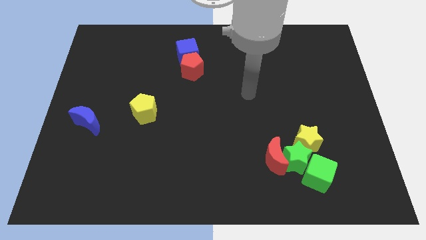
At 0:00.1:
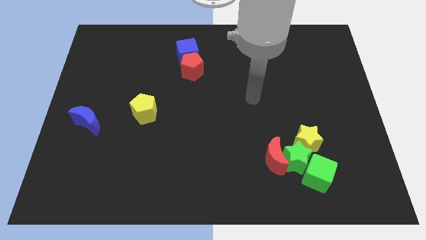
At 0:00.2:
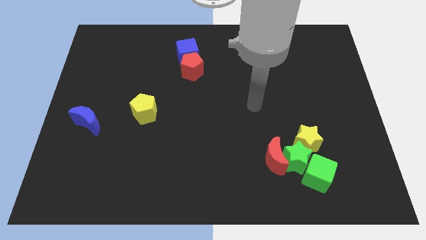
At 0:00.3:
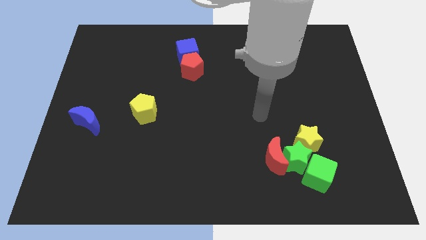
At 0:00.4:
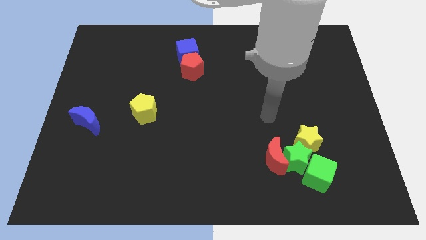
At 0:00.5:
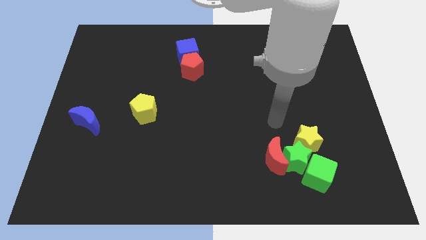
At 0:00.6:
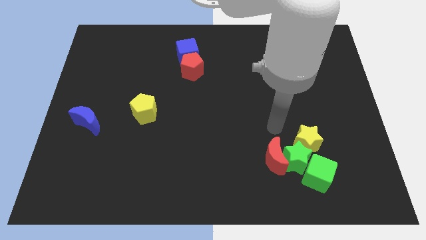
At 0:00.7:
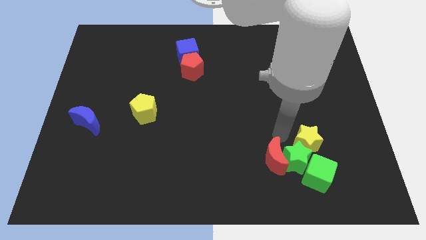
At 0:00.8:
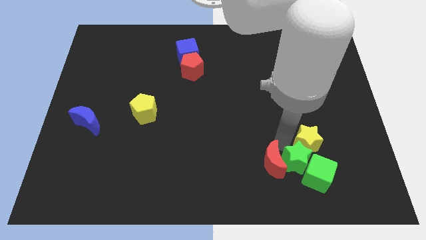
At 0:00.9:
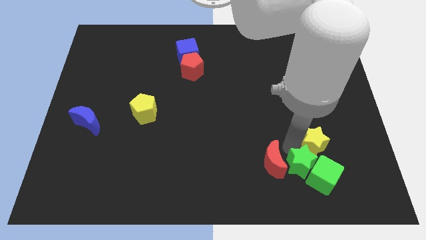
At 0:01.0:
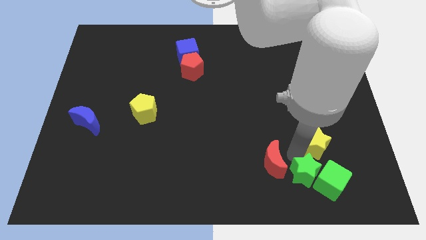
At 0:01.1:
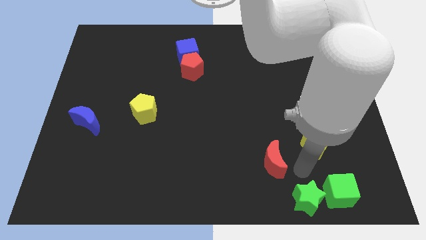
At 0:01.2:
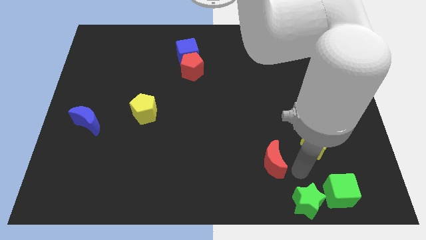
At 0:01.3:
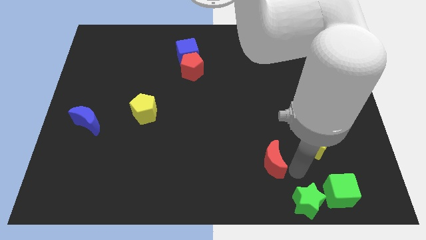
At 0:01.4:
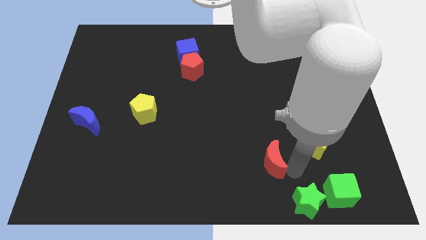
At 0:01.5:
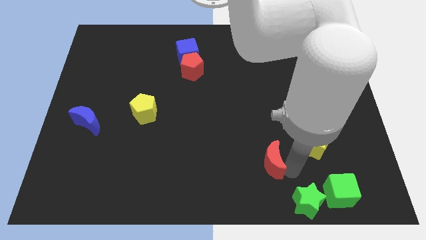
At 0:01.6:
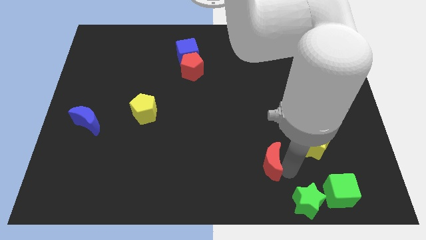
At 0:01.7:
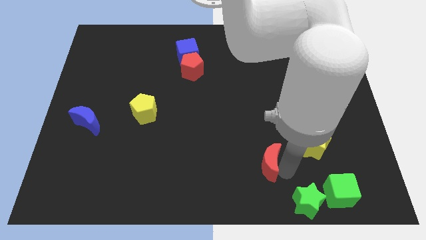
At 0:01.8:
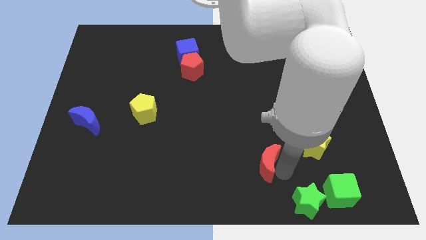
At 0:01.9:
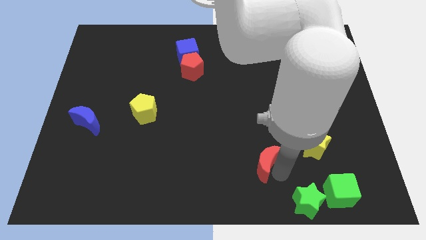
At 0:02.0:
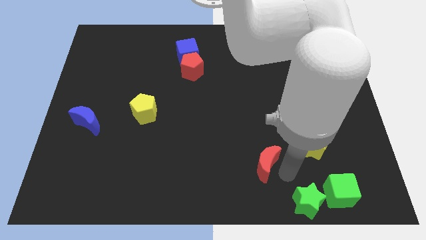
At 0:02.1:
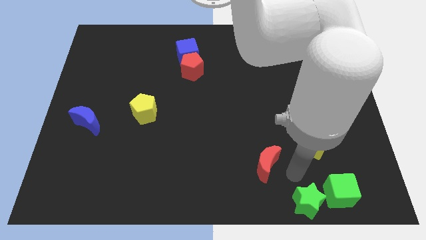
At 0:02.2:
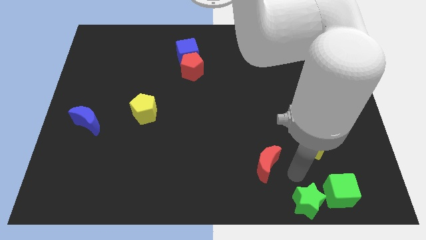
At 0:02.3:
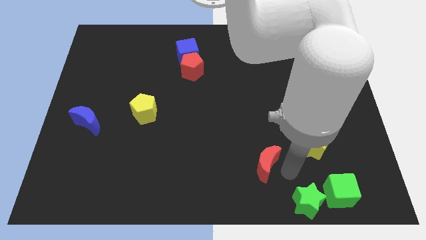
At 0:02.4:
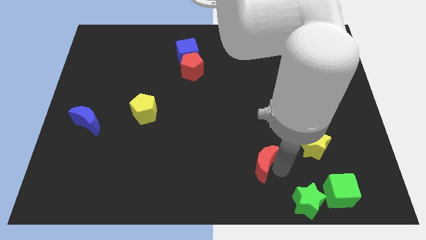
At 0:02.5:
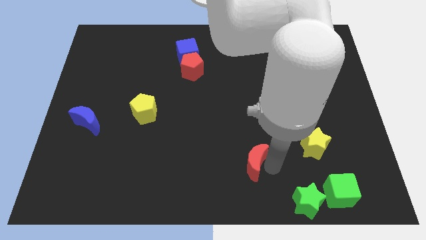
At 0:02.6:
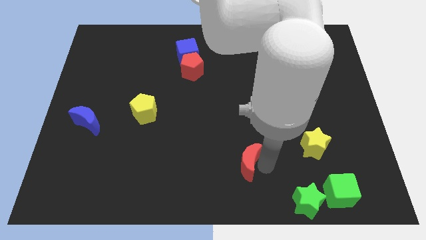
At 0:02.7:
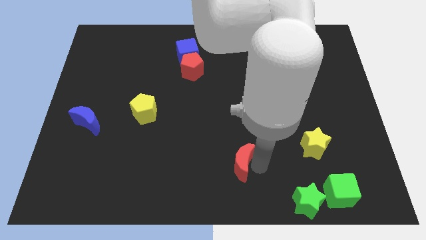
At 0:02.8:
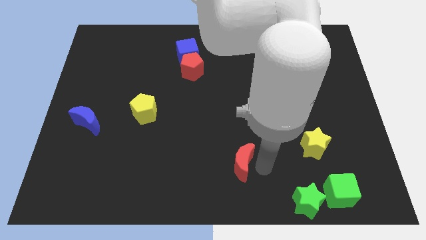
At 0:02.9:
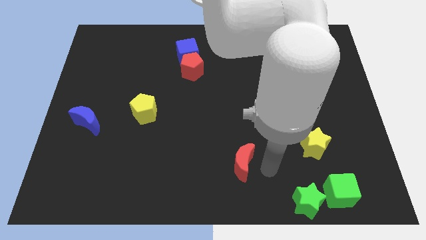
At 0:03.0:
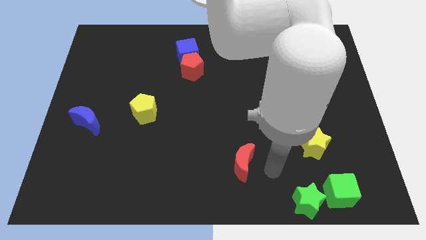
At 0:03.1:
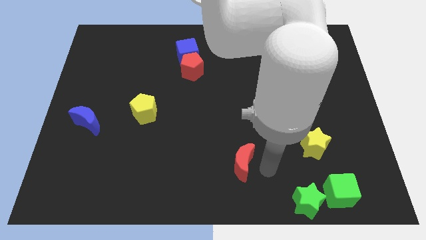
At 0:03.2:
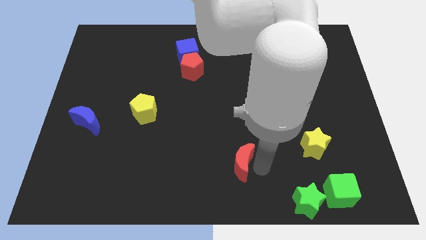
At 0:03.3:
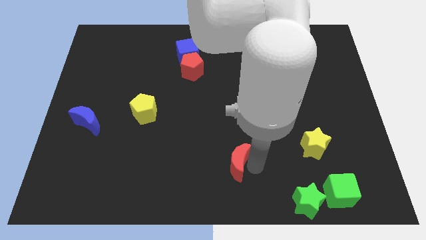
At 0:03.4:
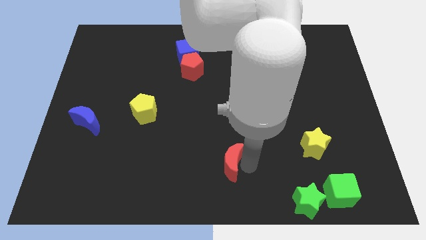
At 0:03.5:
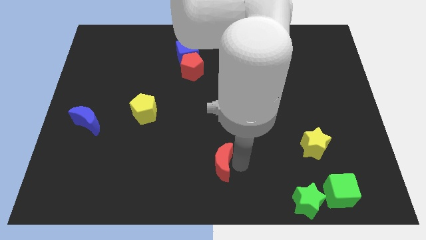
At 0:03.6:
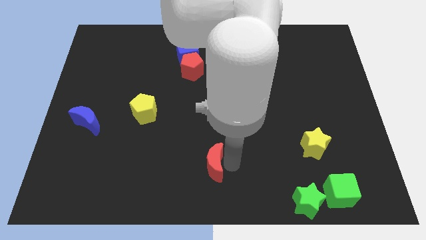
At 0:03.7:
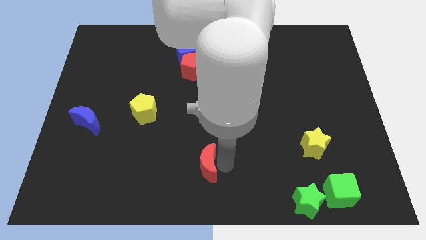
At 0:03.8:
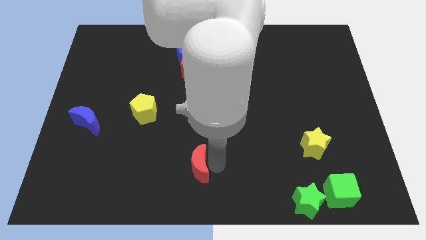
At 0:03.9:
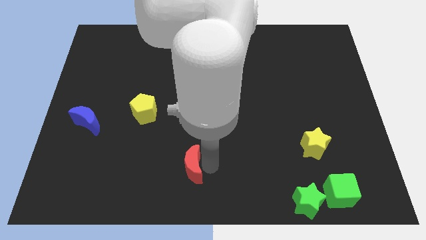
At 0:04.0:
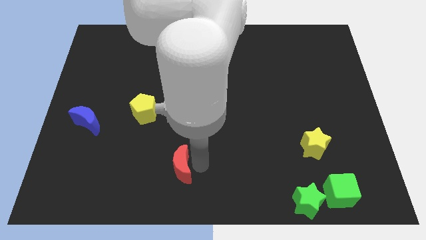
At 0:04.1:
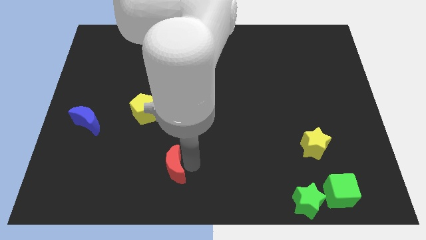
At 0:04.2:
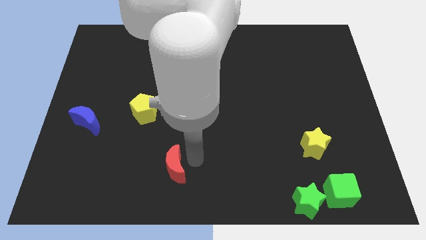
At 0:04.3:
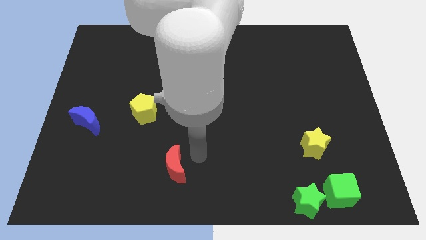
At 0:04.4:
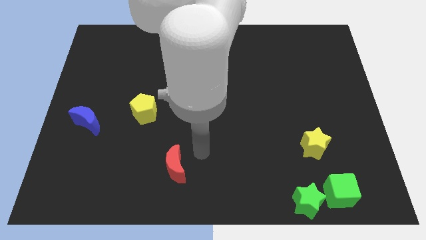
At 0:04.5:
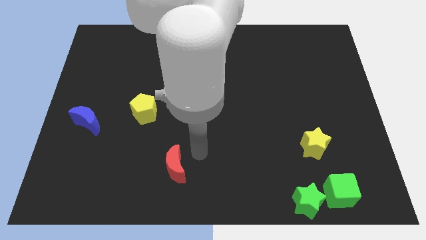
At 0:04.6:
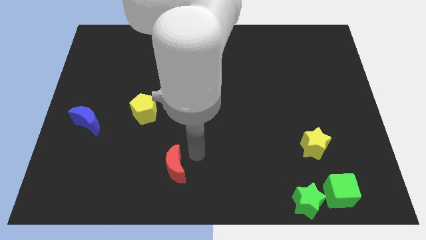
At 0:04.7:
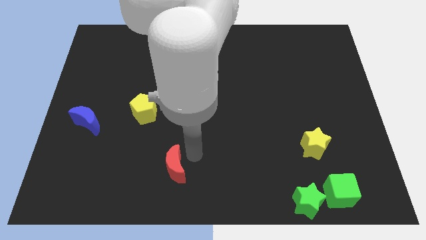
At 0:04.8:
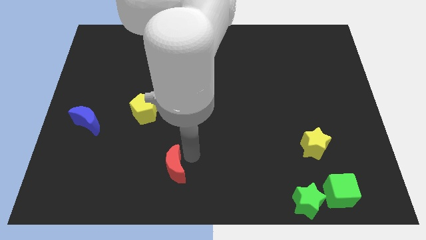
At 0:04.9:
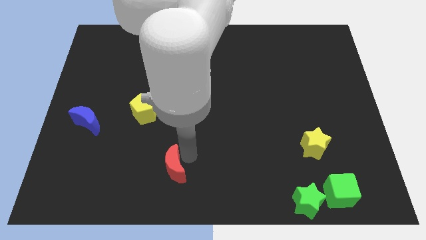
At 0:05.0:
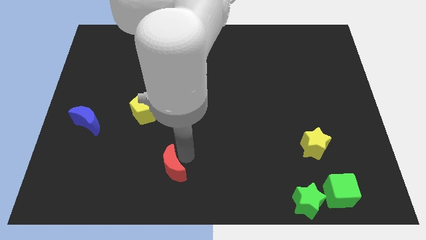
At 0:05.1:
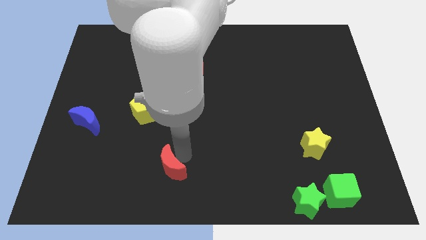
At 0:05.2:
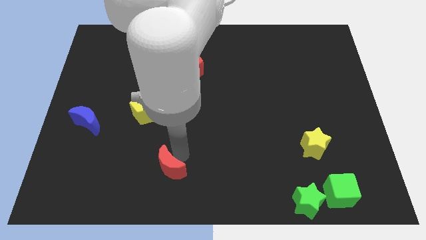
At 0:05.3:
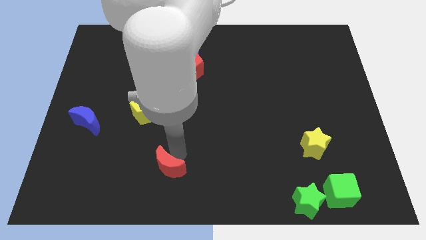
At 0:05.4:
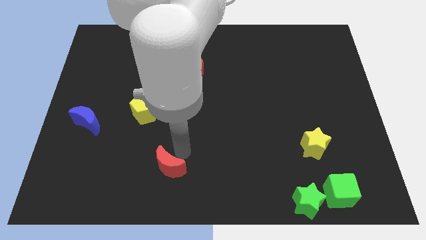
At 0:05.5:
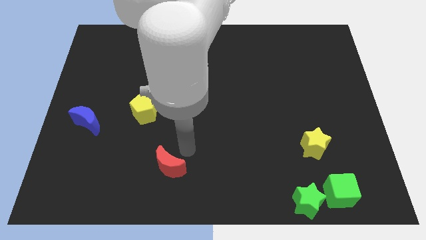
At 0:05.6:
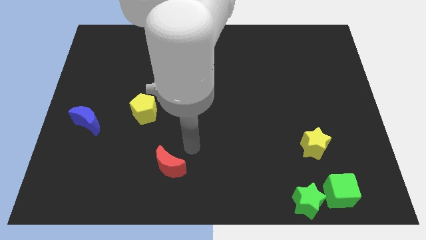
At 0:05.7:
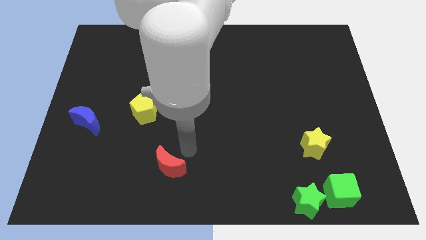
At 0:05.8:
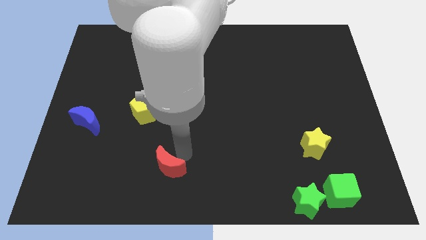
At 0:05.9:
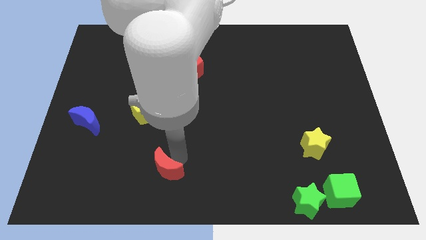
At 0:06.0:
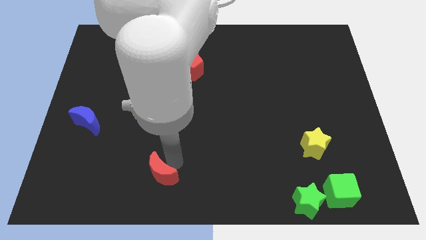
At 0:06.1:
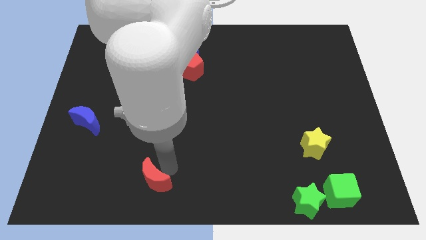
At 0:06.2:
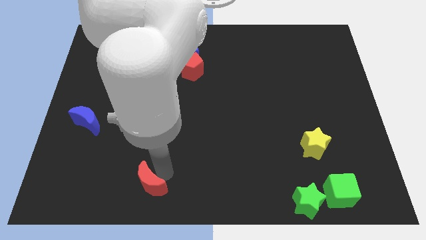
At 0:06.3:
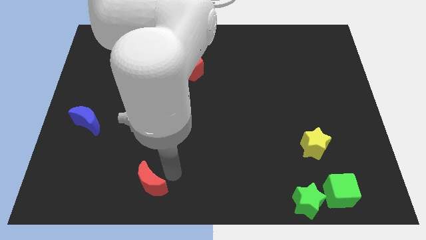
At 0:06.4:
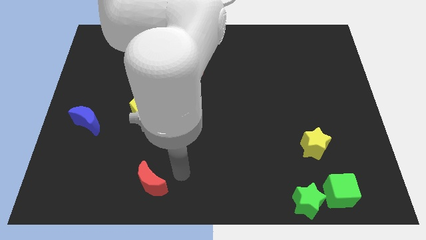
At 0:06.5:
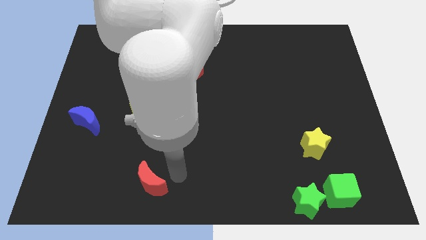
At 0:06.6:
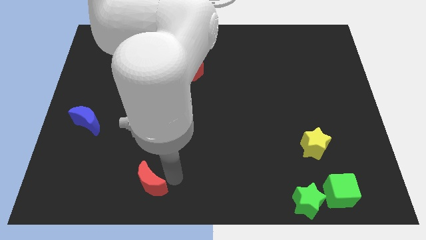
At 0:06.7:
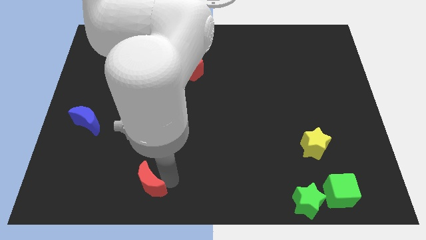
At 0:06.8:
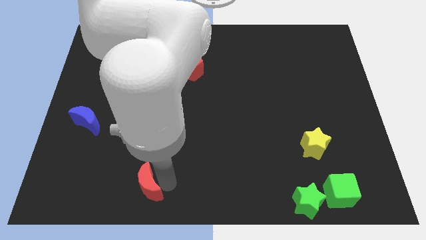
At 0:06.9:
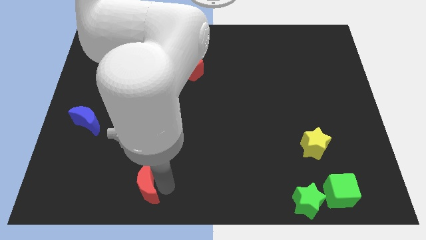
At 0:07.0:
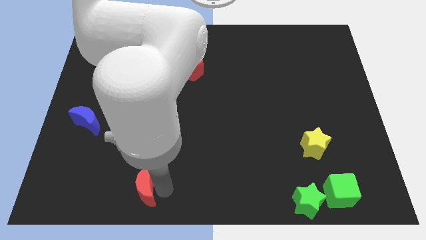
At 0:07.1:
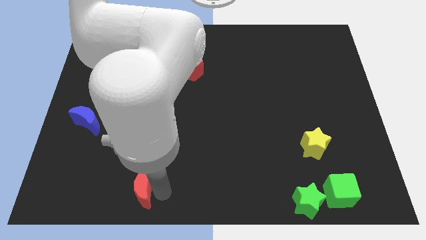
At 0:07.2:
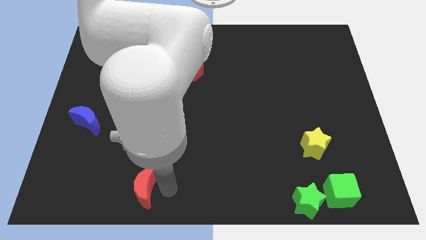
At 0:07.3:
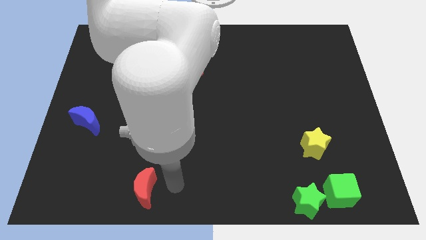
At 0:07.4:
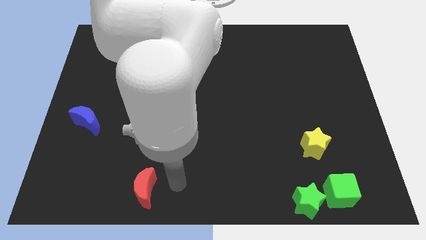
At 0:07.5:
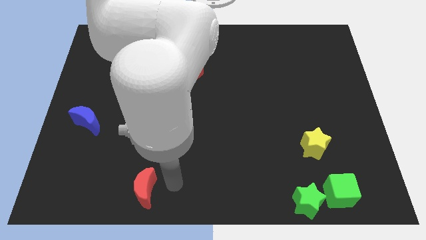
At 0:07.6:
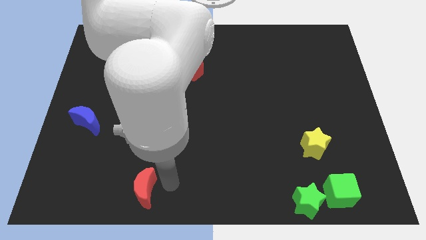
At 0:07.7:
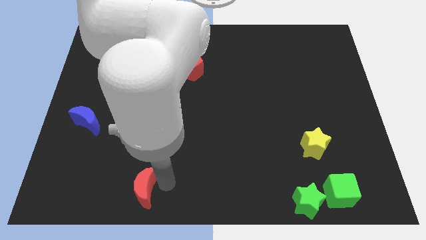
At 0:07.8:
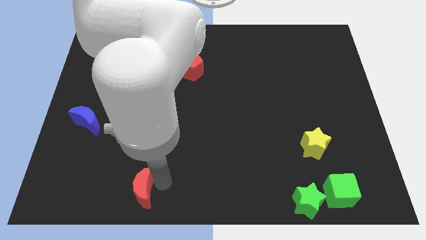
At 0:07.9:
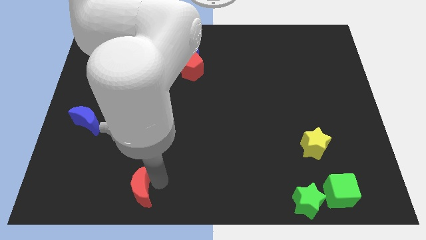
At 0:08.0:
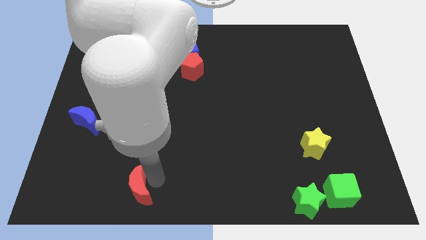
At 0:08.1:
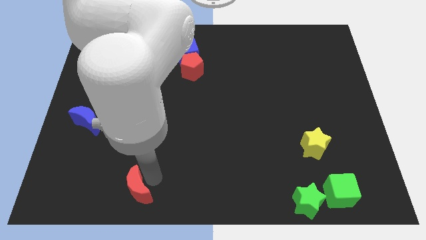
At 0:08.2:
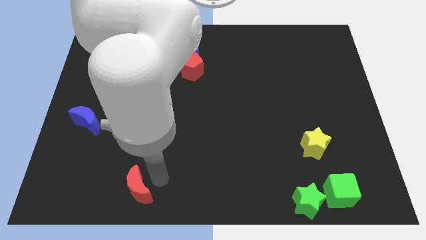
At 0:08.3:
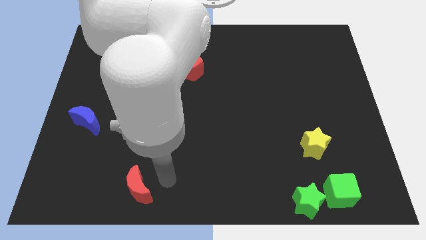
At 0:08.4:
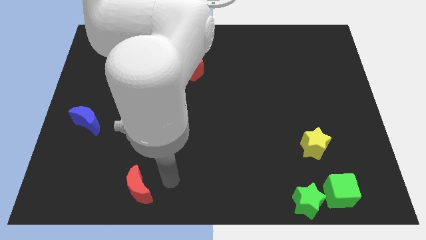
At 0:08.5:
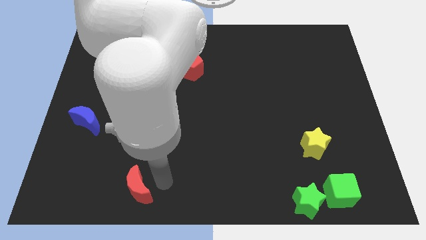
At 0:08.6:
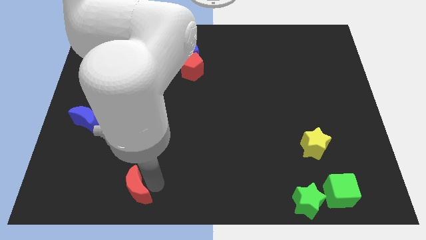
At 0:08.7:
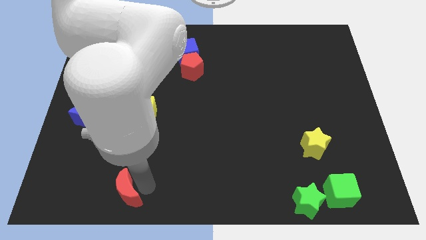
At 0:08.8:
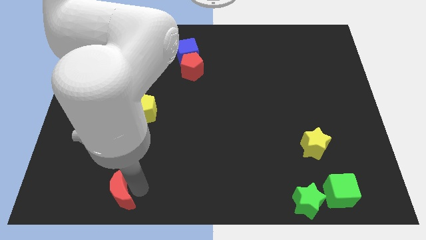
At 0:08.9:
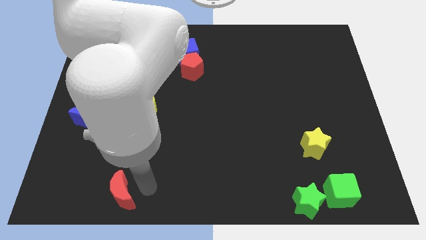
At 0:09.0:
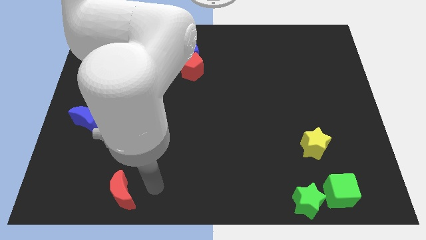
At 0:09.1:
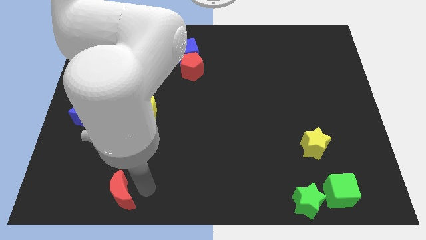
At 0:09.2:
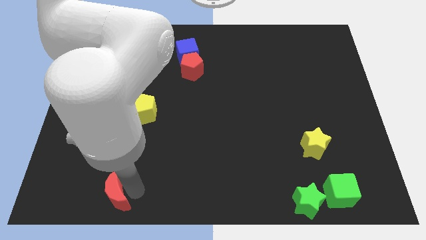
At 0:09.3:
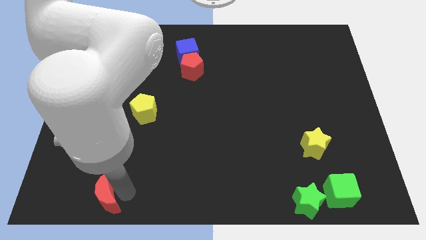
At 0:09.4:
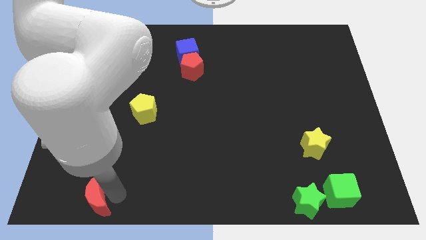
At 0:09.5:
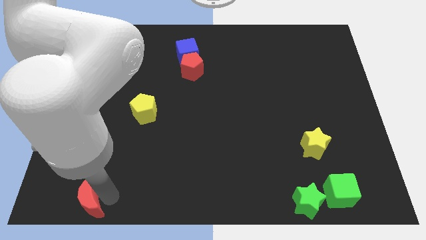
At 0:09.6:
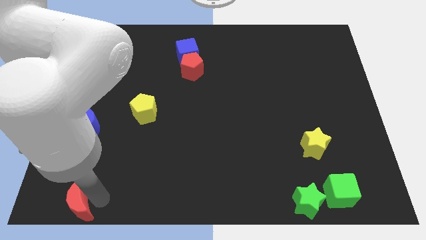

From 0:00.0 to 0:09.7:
move the red moon to the lower left corner
